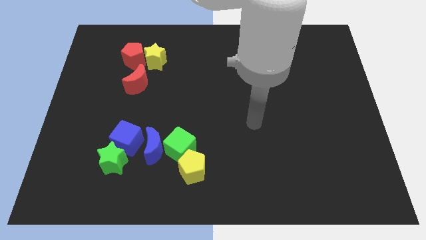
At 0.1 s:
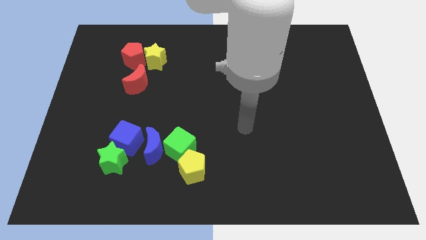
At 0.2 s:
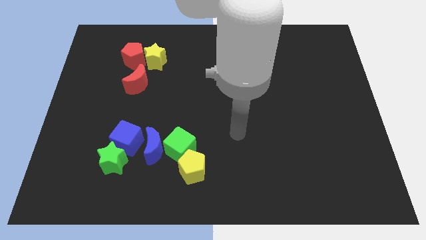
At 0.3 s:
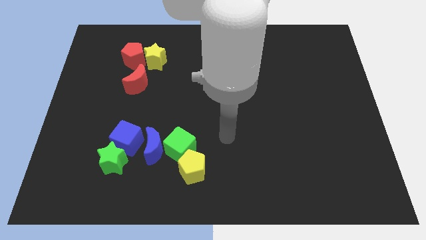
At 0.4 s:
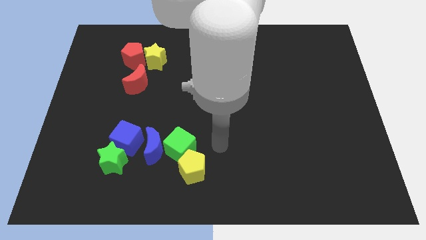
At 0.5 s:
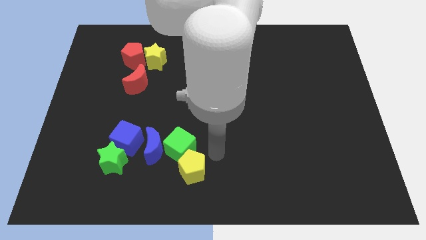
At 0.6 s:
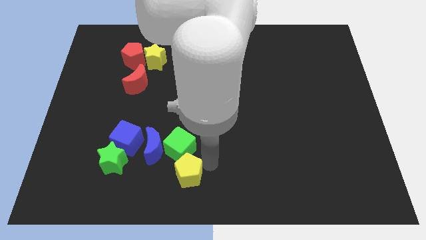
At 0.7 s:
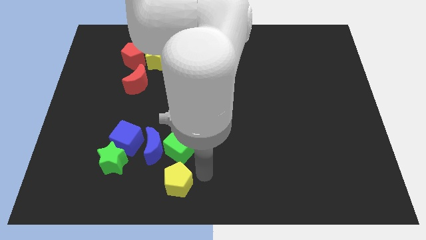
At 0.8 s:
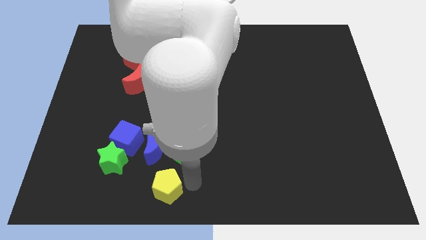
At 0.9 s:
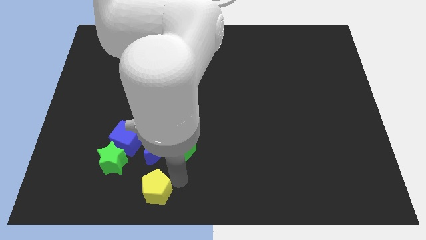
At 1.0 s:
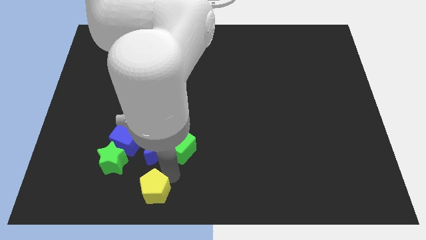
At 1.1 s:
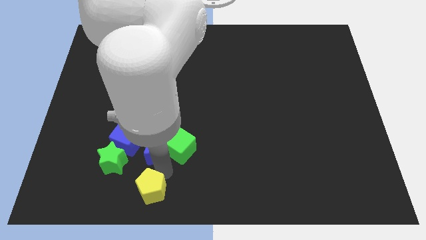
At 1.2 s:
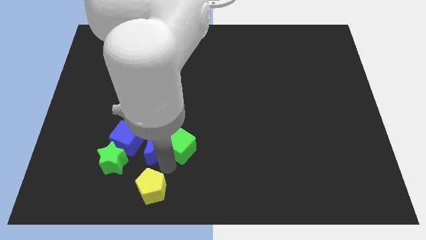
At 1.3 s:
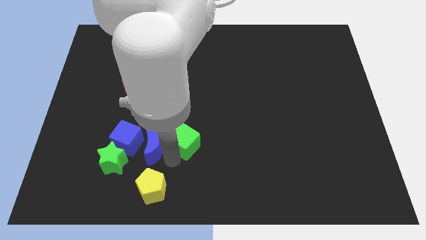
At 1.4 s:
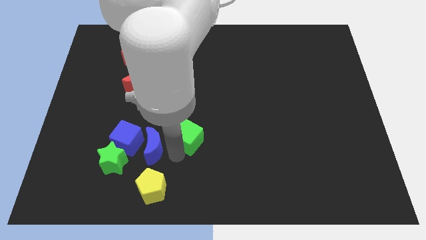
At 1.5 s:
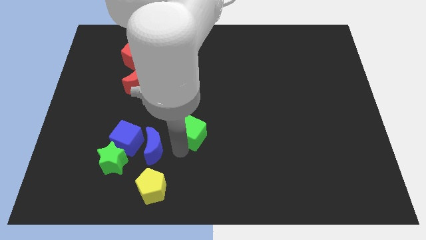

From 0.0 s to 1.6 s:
separate the green cube from the blue moon and yellow pentagon

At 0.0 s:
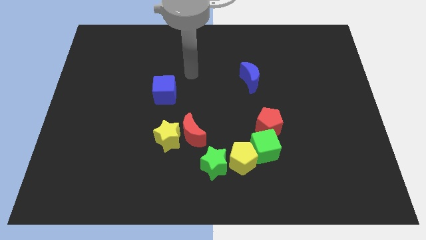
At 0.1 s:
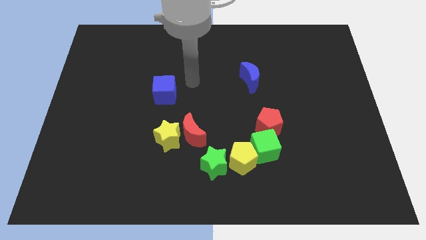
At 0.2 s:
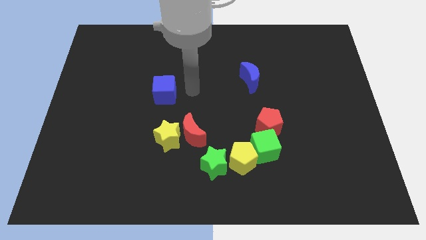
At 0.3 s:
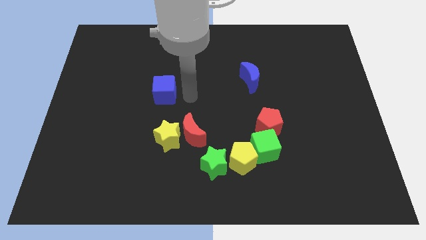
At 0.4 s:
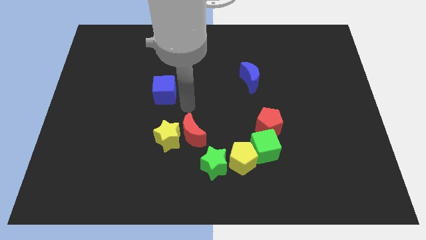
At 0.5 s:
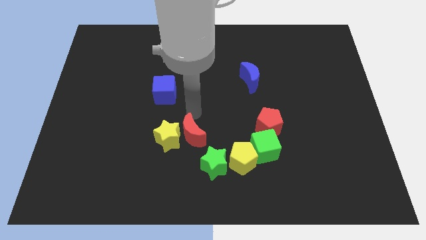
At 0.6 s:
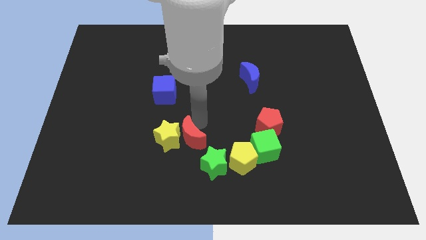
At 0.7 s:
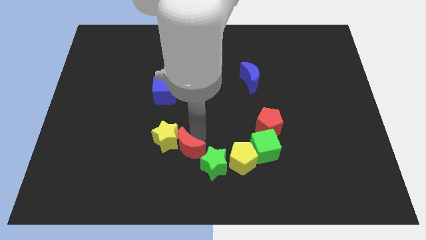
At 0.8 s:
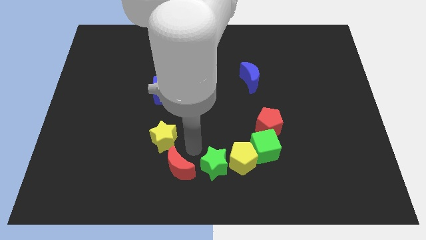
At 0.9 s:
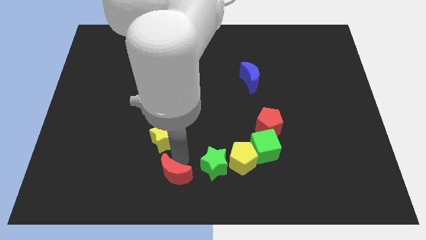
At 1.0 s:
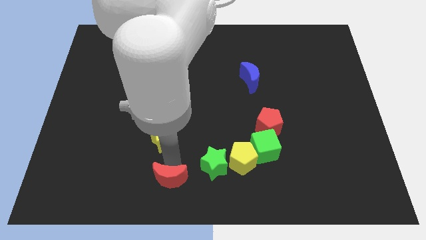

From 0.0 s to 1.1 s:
pull the yellow star apart from the red moon

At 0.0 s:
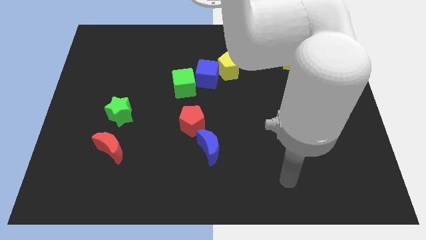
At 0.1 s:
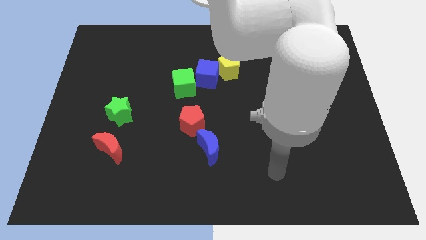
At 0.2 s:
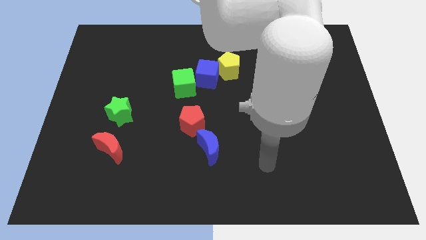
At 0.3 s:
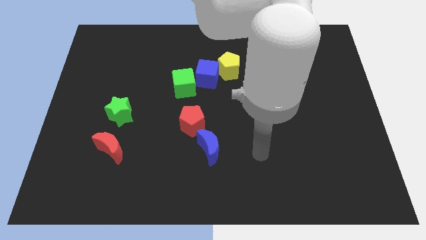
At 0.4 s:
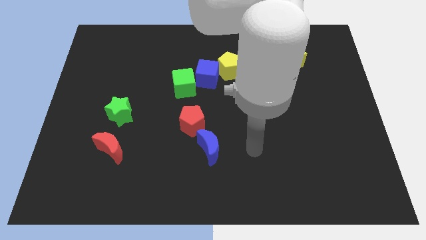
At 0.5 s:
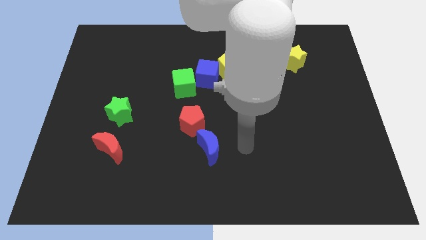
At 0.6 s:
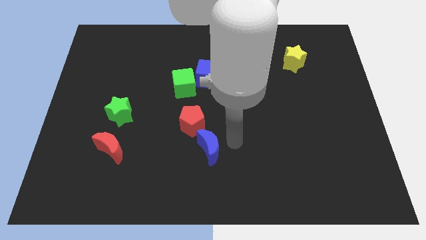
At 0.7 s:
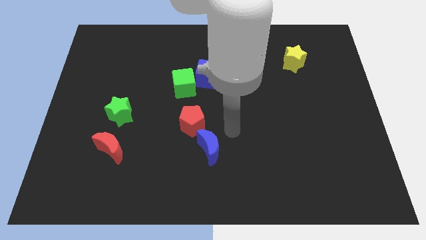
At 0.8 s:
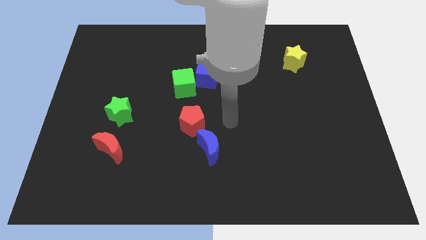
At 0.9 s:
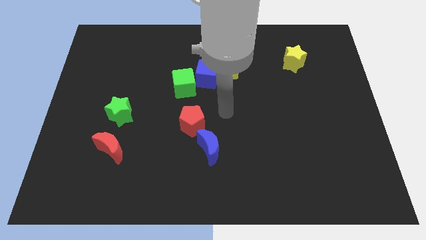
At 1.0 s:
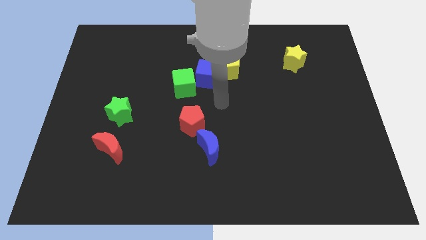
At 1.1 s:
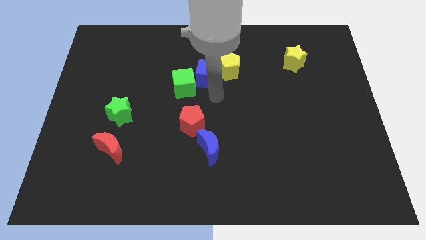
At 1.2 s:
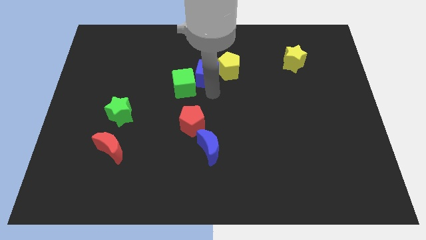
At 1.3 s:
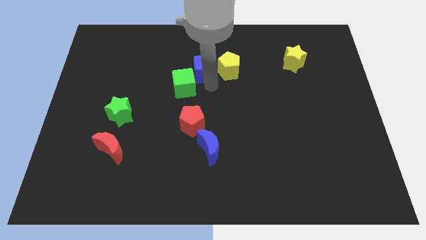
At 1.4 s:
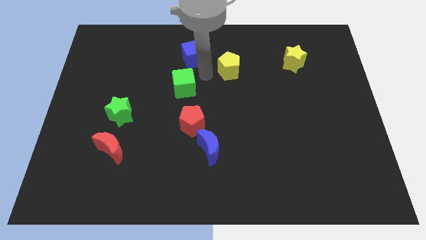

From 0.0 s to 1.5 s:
pull the yellow pentagon apart from the blue cube

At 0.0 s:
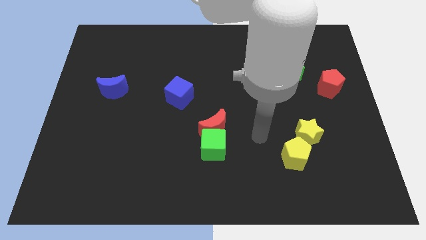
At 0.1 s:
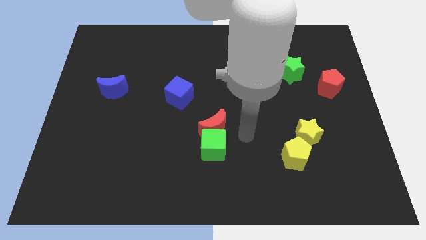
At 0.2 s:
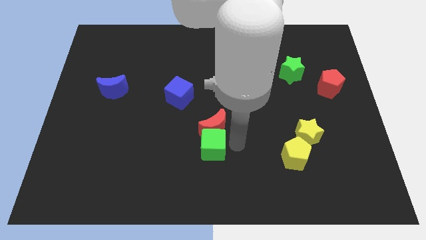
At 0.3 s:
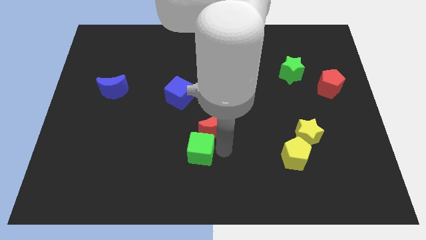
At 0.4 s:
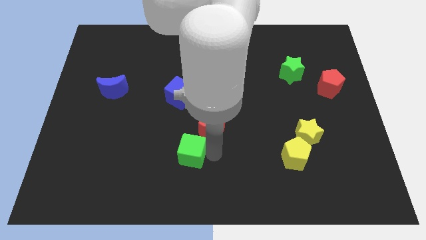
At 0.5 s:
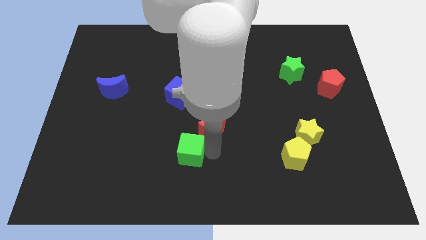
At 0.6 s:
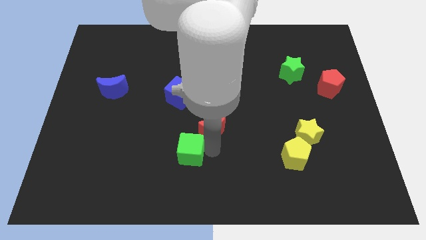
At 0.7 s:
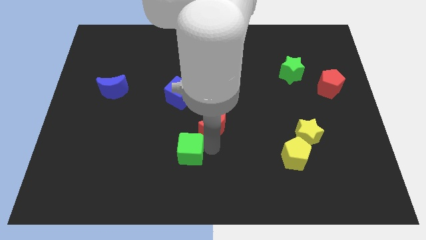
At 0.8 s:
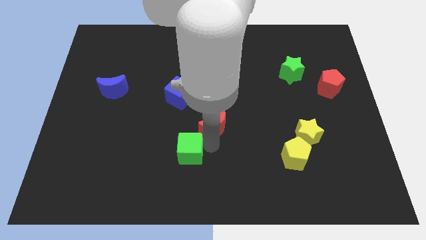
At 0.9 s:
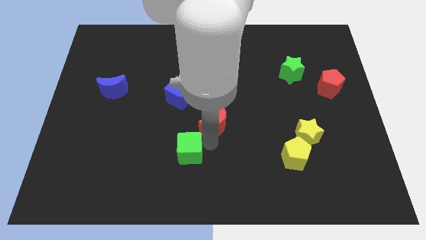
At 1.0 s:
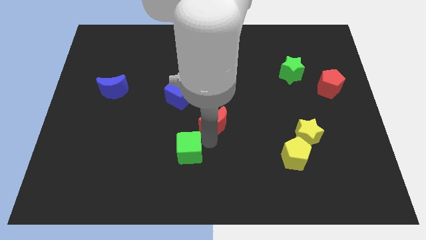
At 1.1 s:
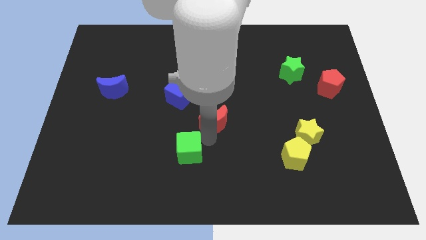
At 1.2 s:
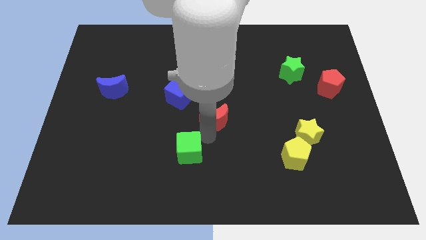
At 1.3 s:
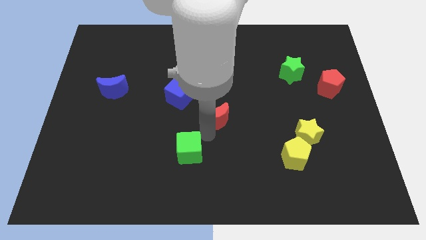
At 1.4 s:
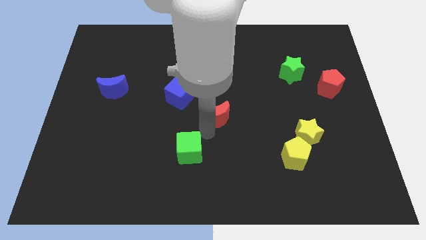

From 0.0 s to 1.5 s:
separate the red moon from the green cube

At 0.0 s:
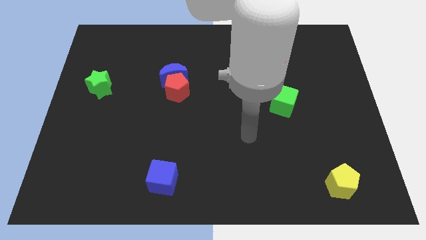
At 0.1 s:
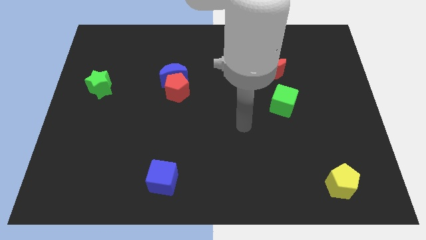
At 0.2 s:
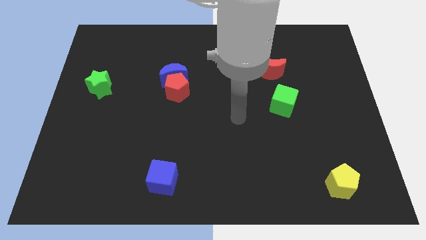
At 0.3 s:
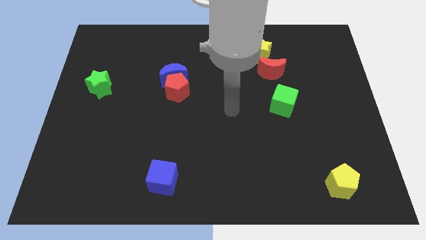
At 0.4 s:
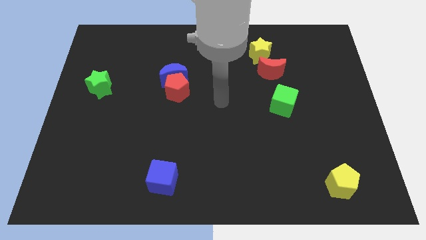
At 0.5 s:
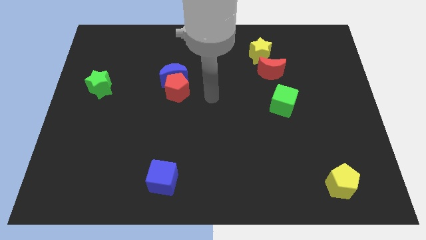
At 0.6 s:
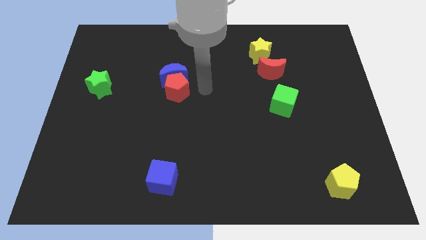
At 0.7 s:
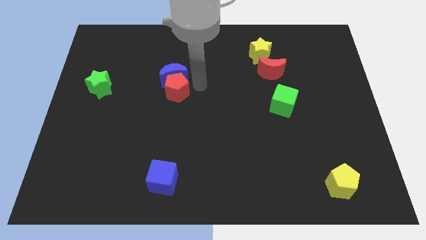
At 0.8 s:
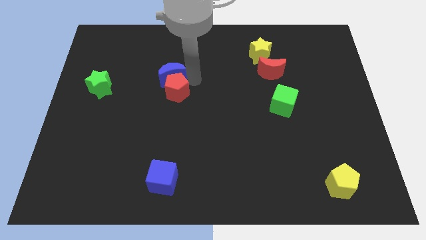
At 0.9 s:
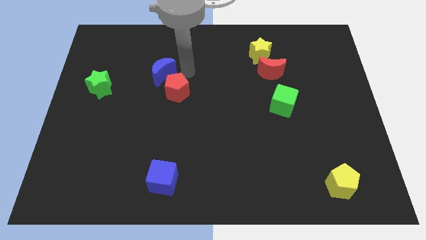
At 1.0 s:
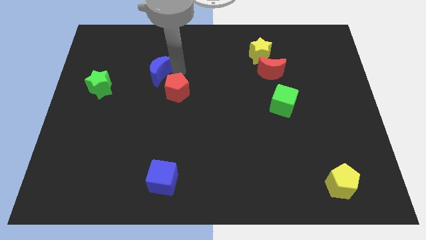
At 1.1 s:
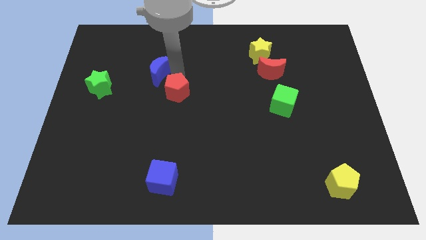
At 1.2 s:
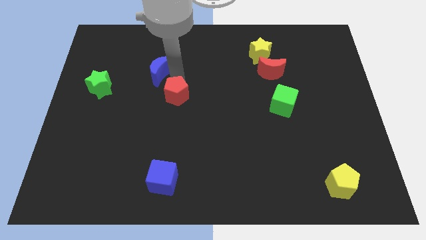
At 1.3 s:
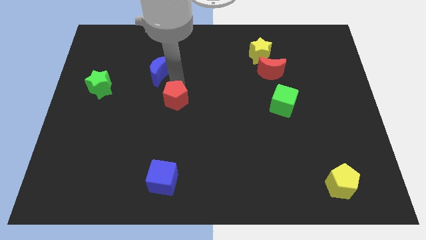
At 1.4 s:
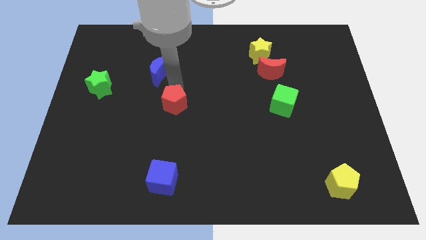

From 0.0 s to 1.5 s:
separate the red pentagon from the blue moon

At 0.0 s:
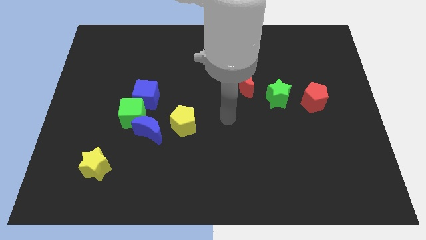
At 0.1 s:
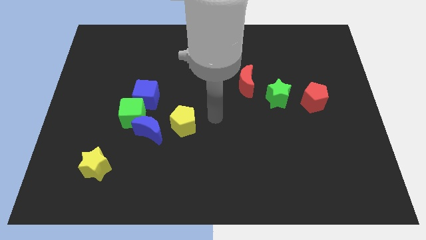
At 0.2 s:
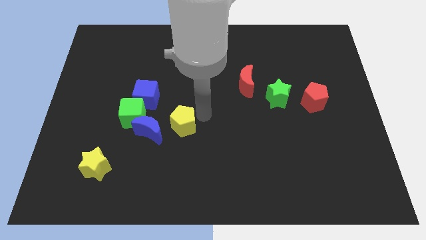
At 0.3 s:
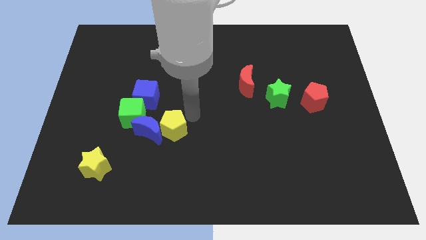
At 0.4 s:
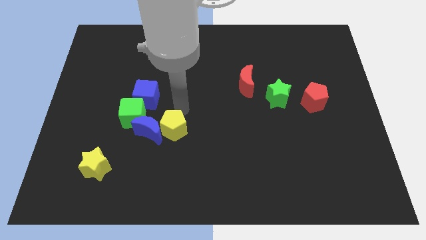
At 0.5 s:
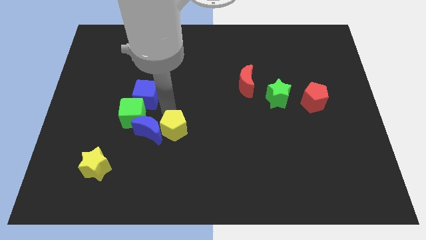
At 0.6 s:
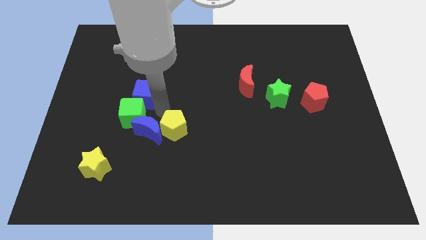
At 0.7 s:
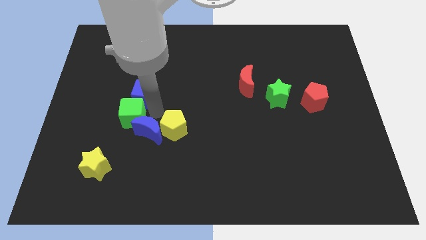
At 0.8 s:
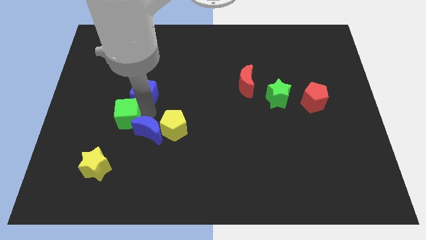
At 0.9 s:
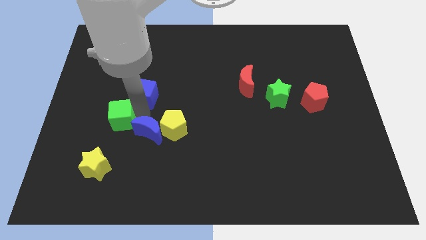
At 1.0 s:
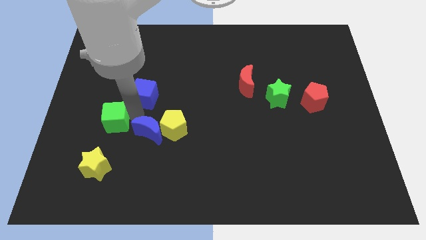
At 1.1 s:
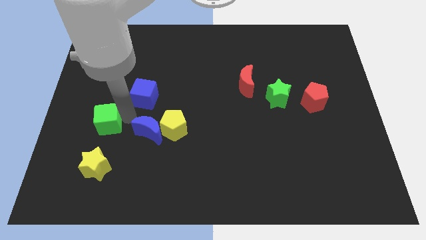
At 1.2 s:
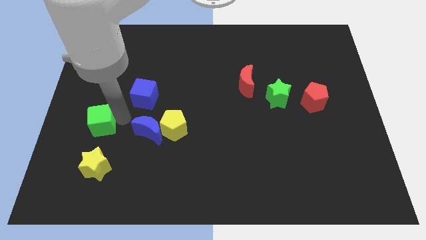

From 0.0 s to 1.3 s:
separate the green cube from the blue cube and blue moon

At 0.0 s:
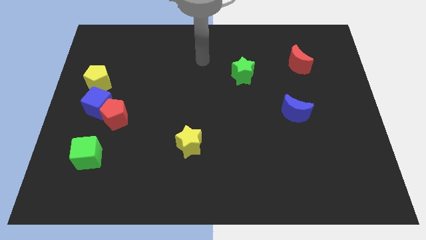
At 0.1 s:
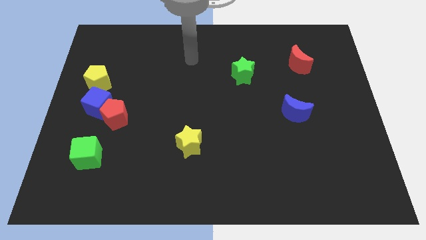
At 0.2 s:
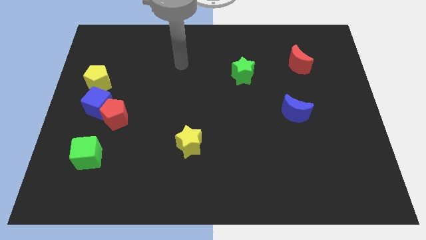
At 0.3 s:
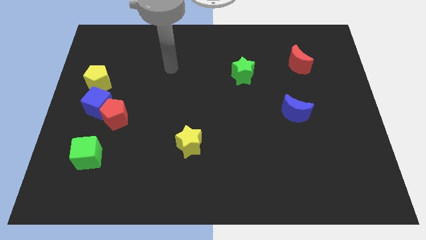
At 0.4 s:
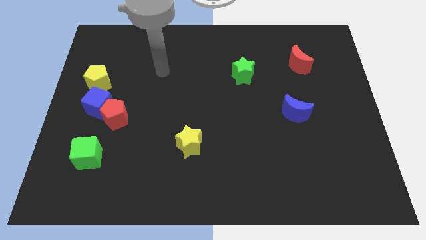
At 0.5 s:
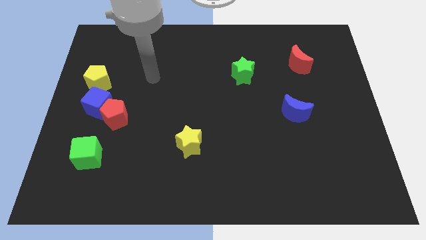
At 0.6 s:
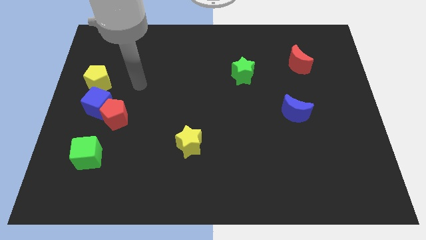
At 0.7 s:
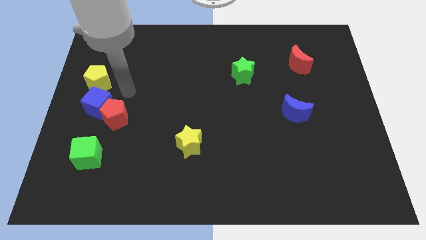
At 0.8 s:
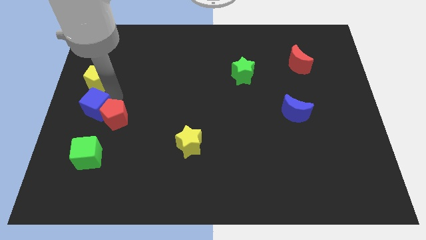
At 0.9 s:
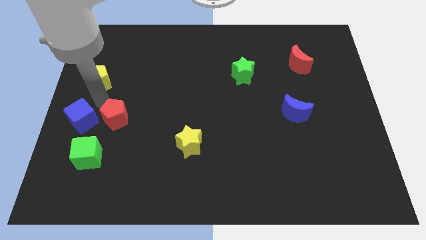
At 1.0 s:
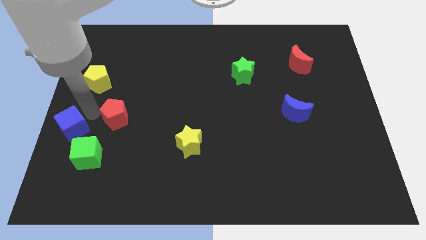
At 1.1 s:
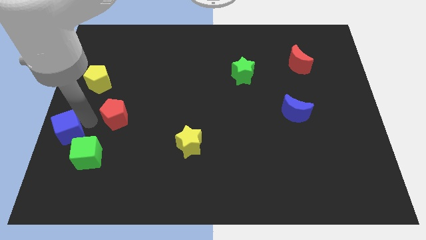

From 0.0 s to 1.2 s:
pull the red pentagon apart from the blue cube
